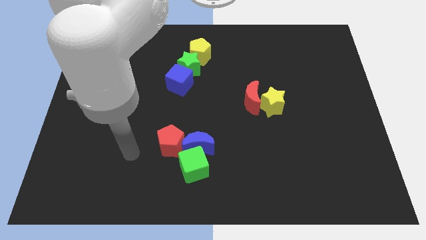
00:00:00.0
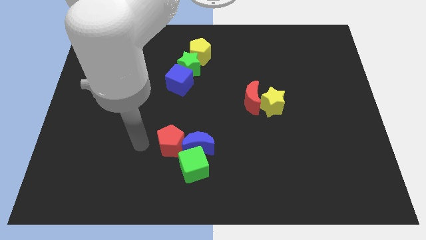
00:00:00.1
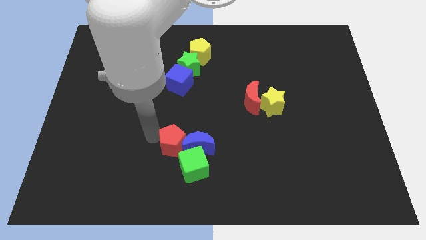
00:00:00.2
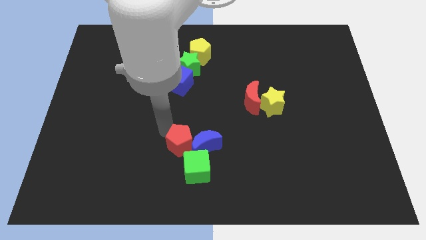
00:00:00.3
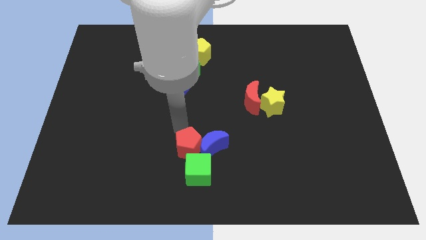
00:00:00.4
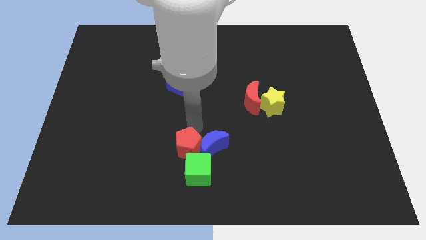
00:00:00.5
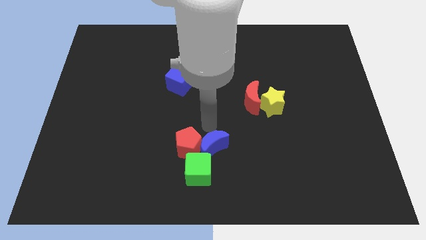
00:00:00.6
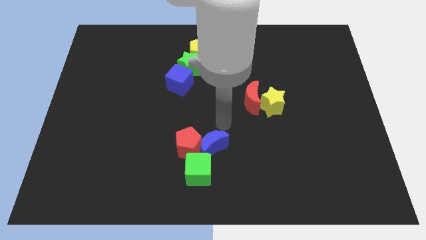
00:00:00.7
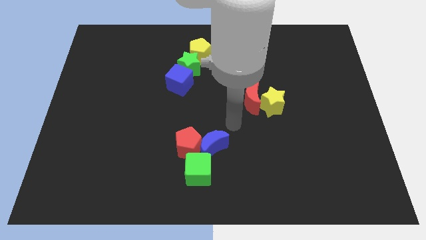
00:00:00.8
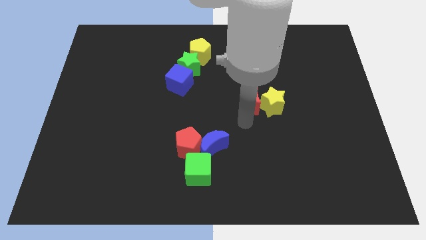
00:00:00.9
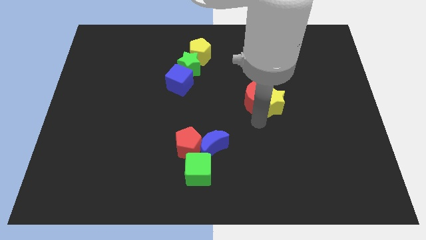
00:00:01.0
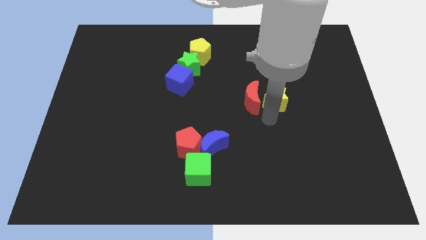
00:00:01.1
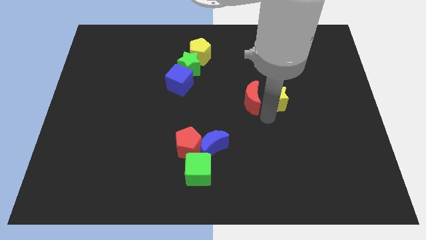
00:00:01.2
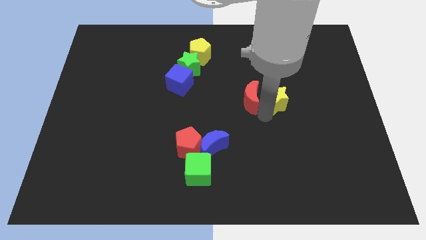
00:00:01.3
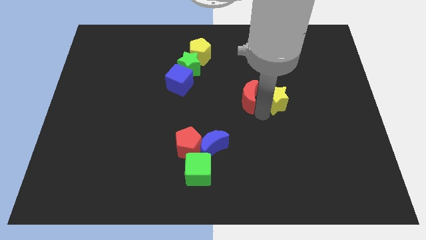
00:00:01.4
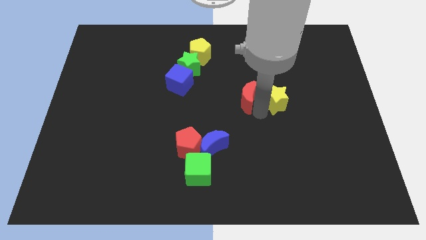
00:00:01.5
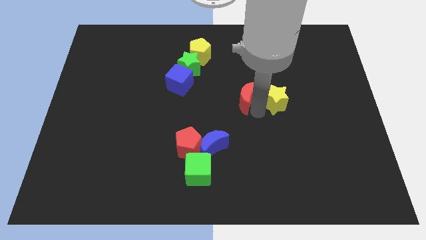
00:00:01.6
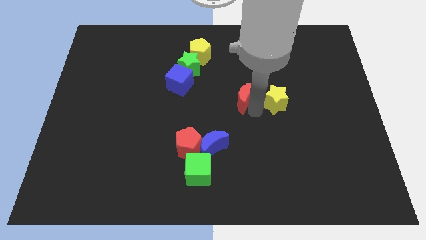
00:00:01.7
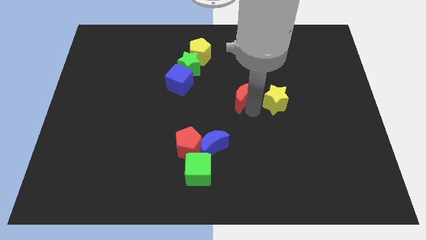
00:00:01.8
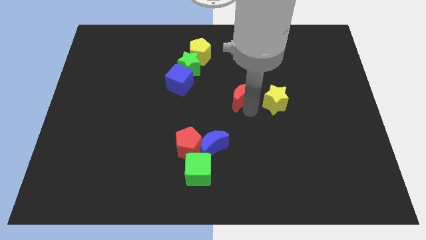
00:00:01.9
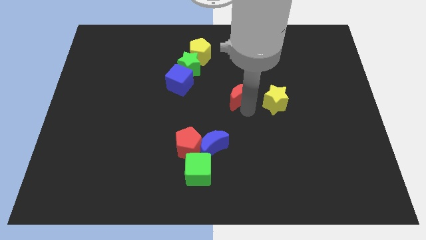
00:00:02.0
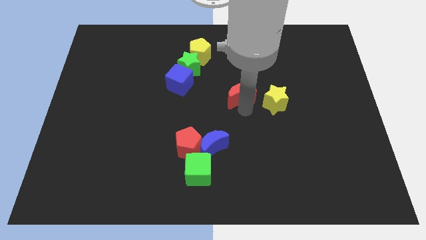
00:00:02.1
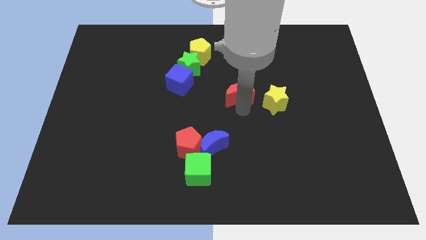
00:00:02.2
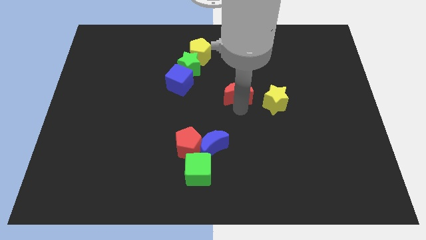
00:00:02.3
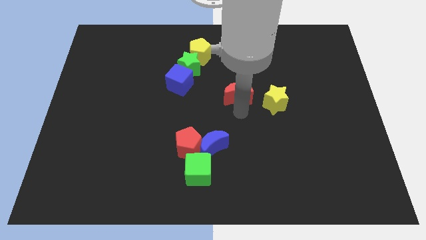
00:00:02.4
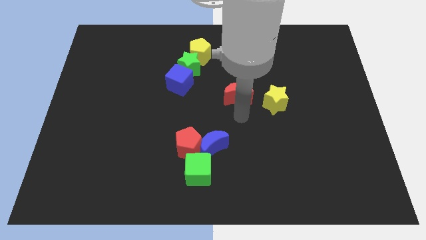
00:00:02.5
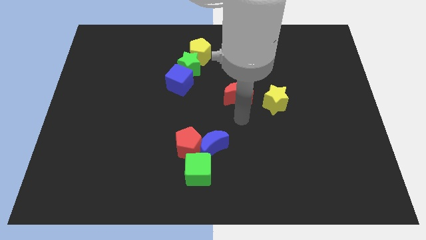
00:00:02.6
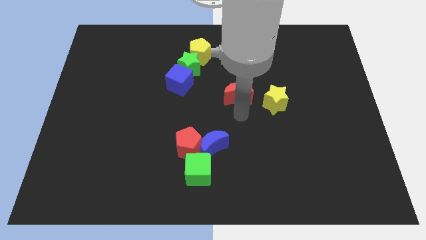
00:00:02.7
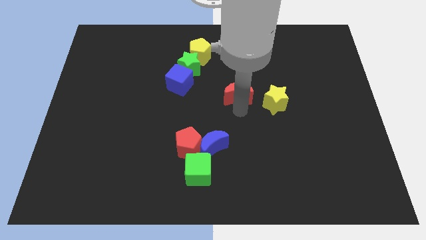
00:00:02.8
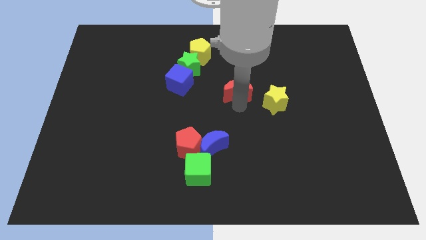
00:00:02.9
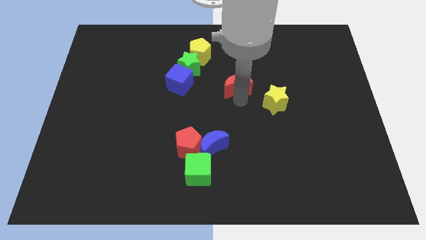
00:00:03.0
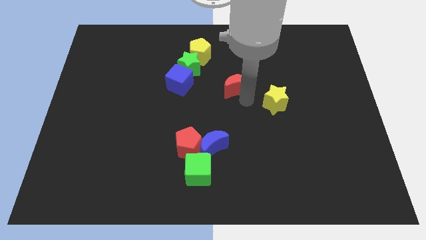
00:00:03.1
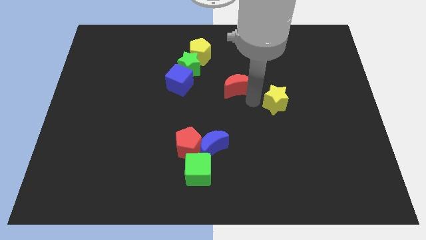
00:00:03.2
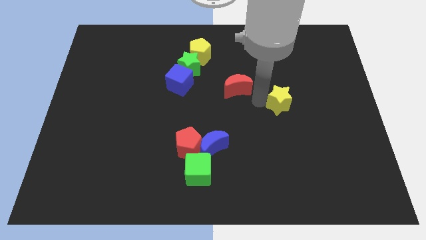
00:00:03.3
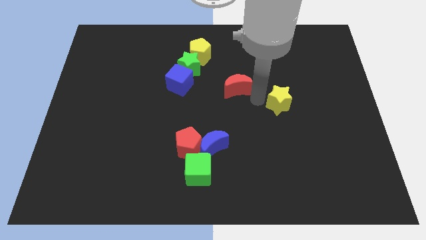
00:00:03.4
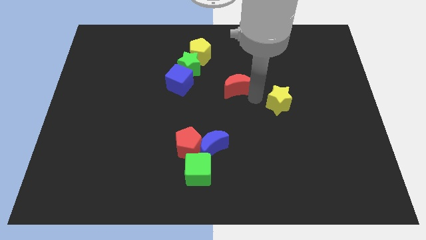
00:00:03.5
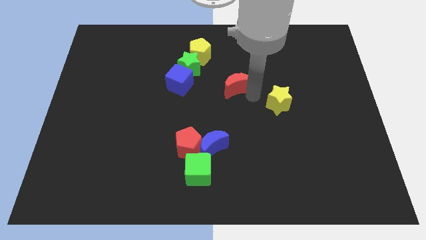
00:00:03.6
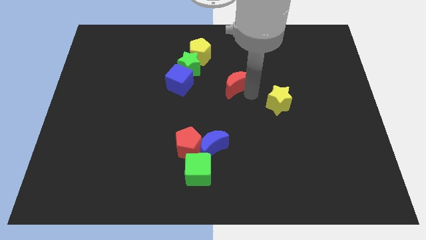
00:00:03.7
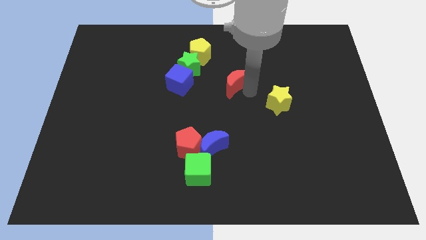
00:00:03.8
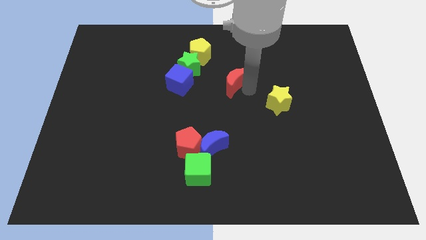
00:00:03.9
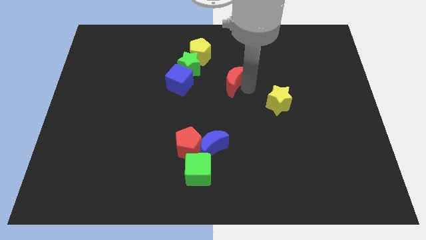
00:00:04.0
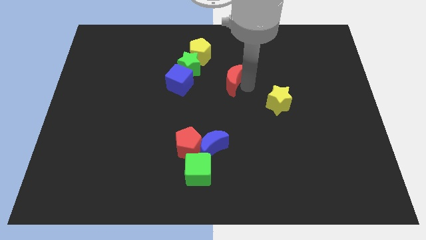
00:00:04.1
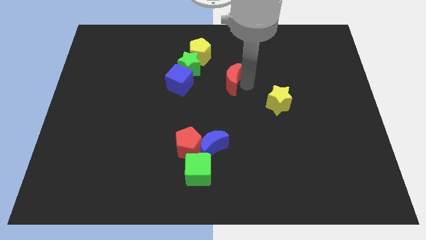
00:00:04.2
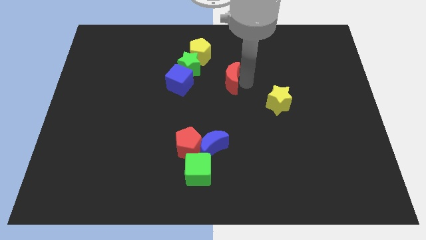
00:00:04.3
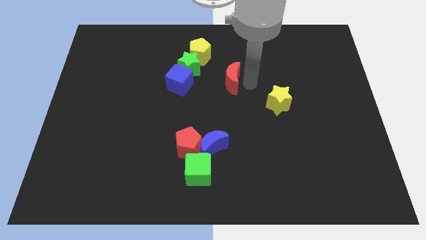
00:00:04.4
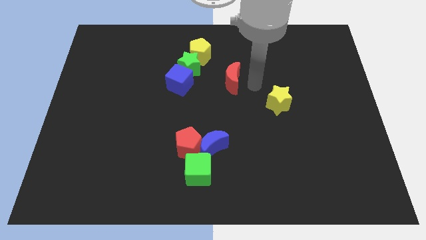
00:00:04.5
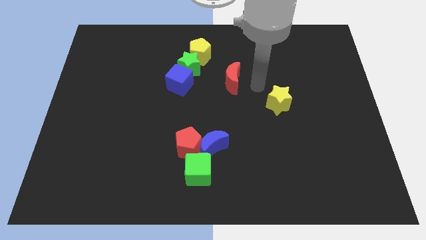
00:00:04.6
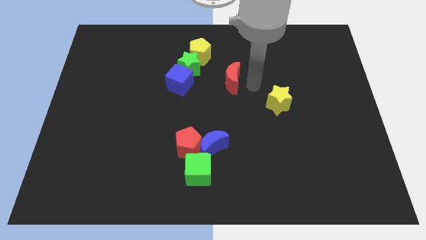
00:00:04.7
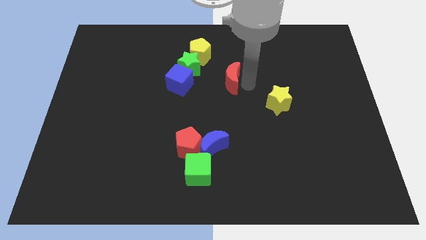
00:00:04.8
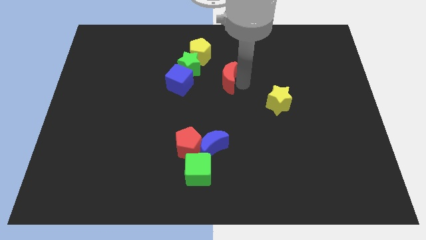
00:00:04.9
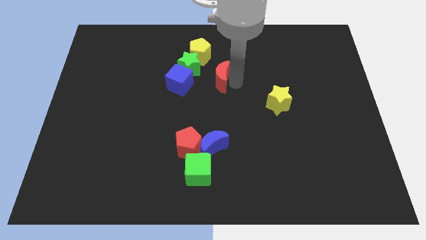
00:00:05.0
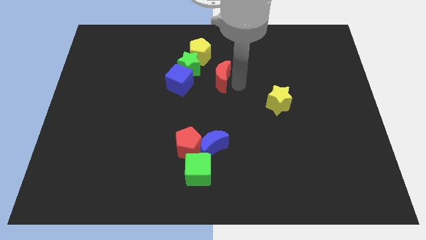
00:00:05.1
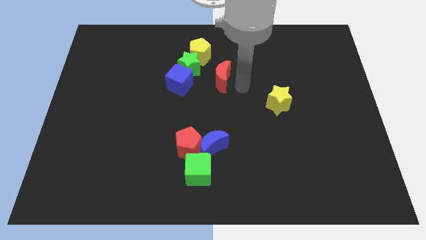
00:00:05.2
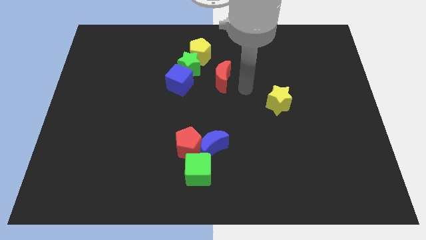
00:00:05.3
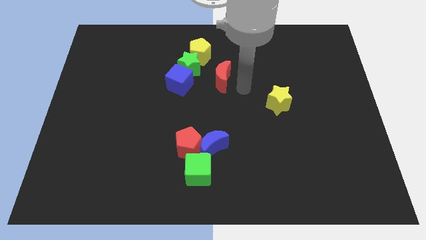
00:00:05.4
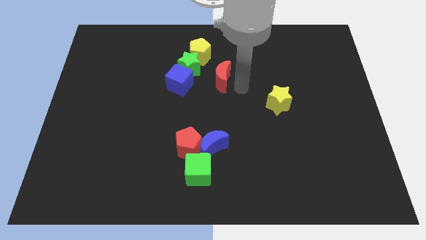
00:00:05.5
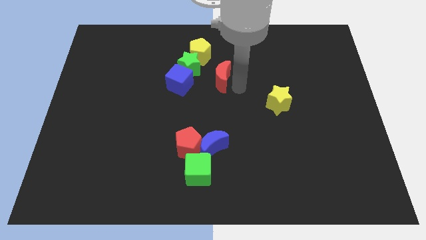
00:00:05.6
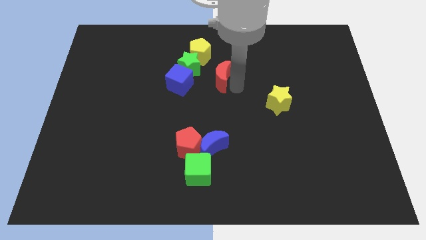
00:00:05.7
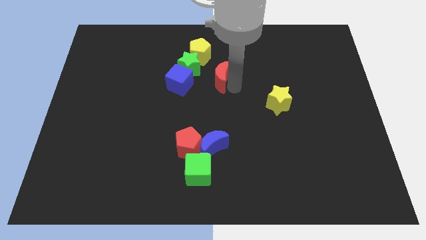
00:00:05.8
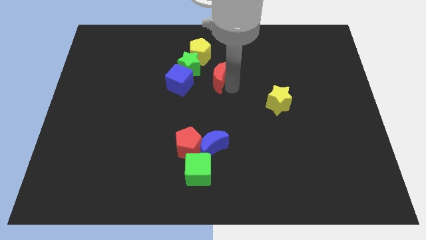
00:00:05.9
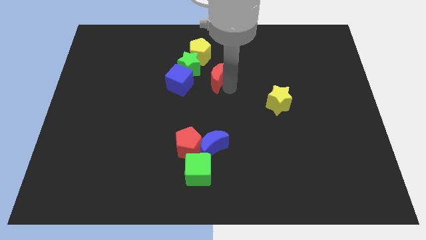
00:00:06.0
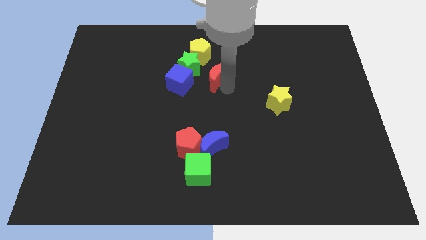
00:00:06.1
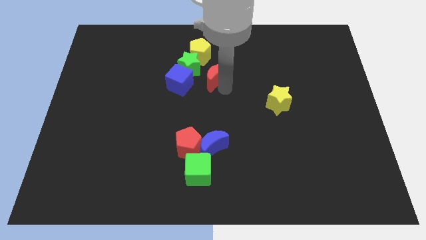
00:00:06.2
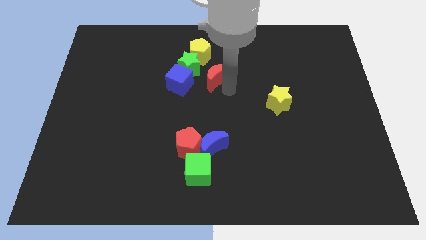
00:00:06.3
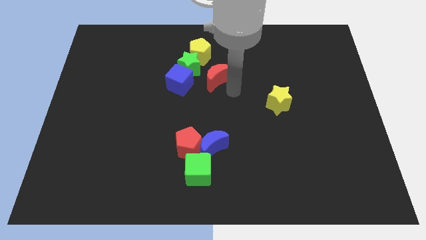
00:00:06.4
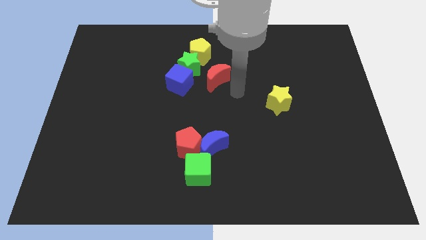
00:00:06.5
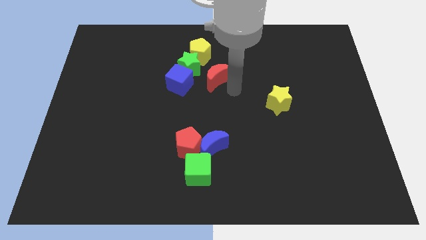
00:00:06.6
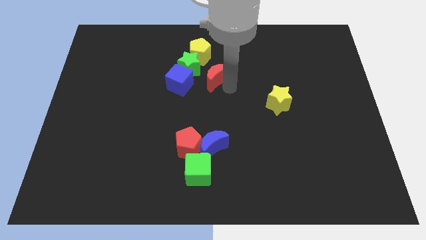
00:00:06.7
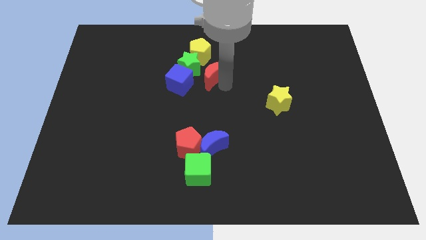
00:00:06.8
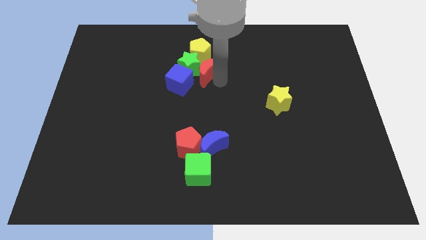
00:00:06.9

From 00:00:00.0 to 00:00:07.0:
push the red moon next to the green star

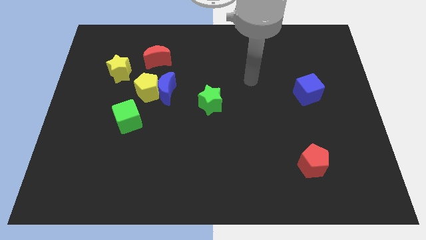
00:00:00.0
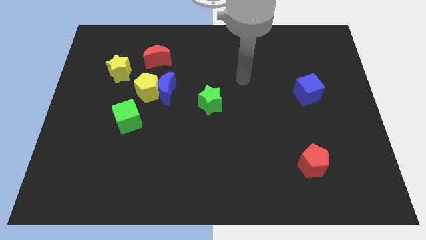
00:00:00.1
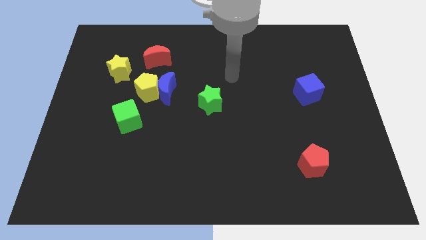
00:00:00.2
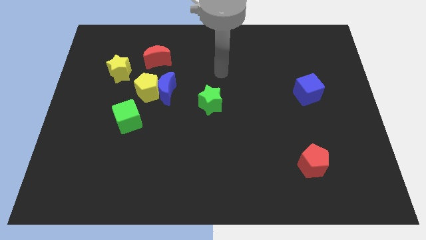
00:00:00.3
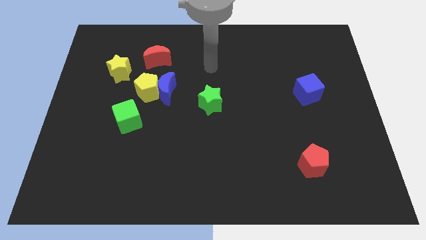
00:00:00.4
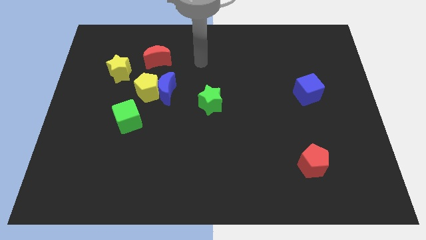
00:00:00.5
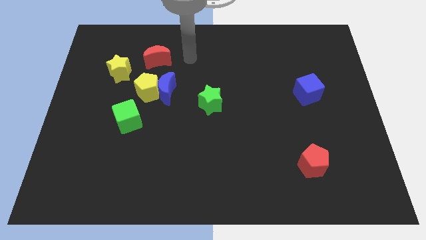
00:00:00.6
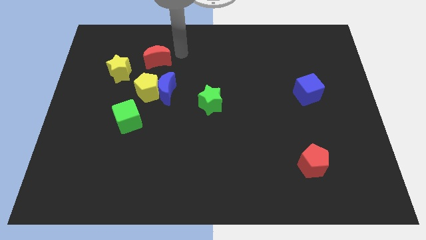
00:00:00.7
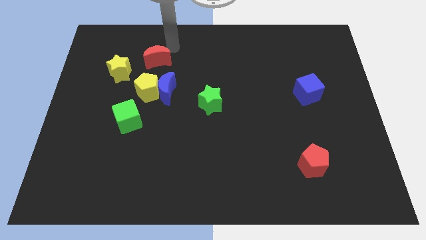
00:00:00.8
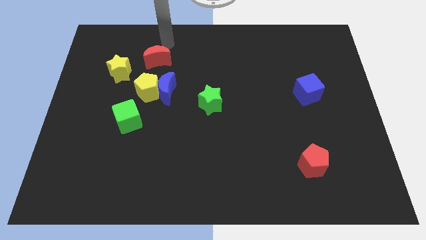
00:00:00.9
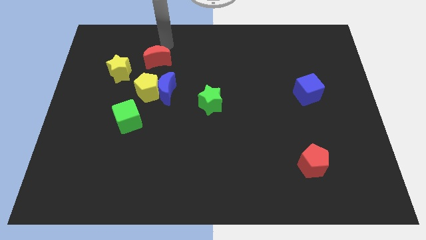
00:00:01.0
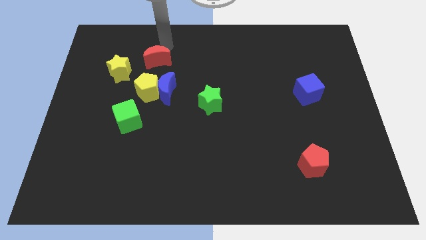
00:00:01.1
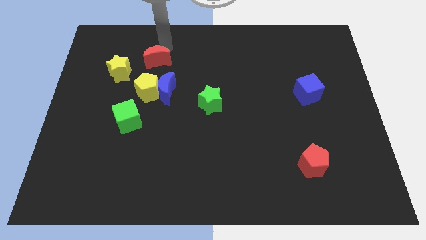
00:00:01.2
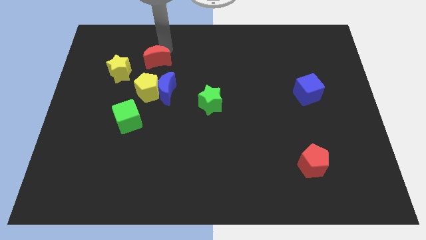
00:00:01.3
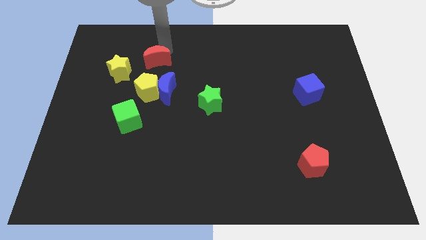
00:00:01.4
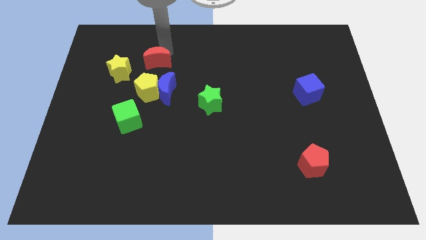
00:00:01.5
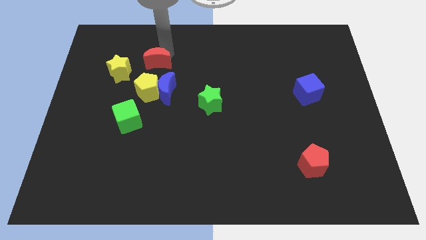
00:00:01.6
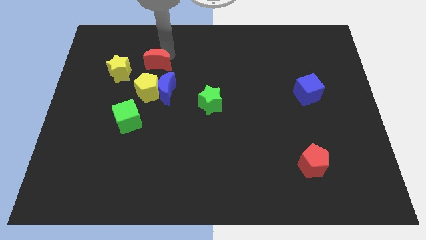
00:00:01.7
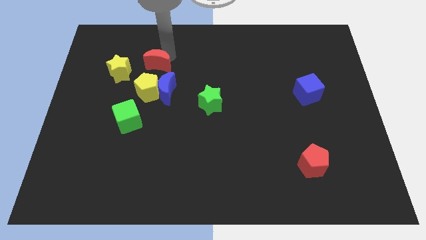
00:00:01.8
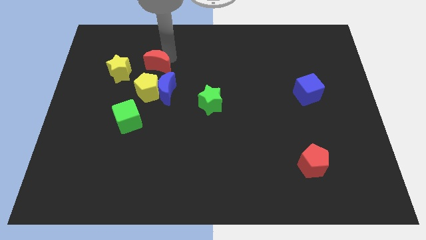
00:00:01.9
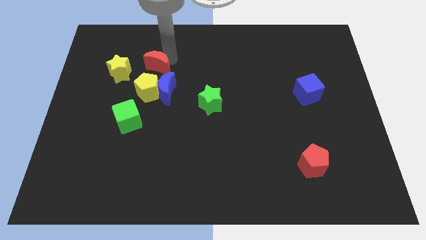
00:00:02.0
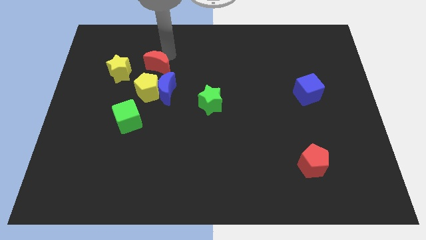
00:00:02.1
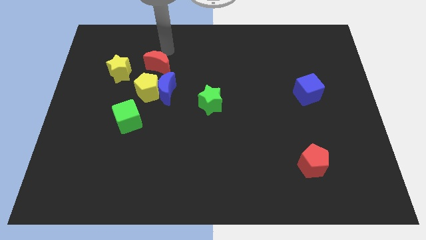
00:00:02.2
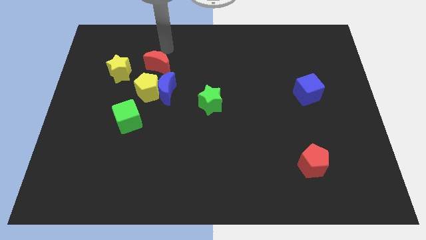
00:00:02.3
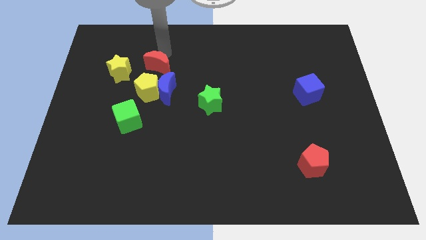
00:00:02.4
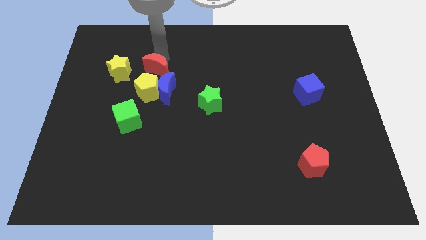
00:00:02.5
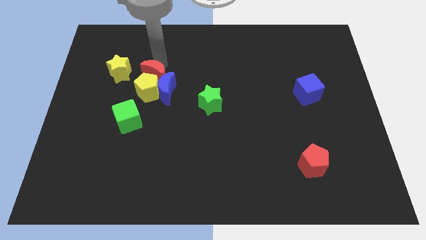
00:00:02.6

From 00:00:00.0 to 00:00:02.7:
slide the red moon towards the yellow pentagon
